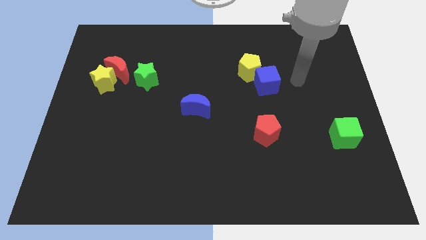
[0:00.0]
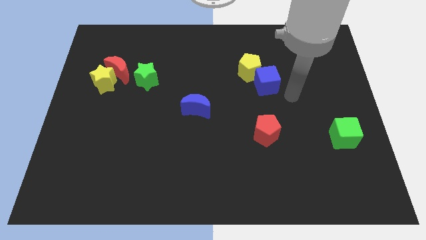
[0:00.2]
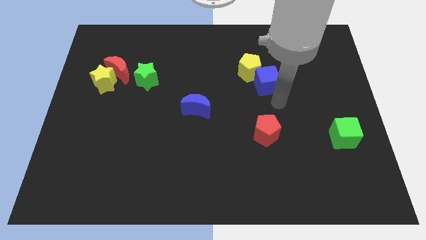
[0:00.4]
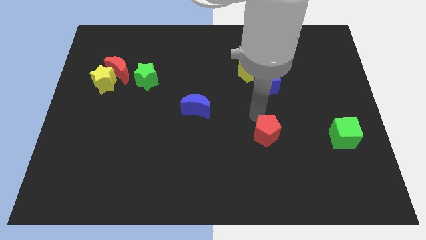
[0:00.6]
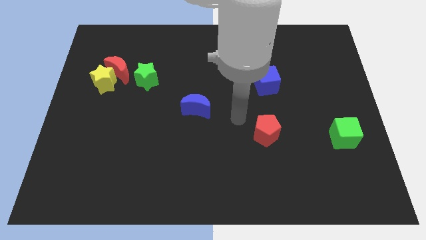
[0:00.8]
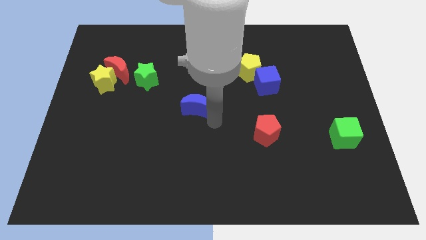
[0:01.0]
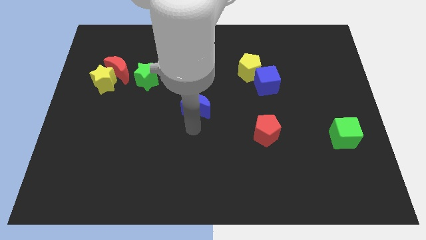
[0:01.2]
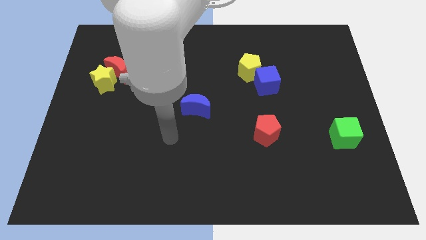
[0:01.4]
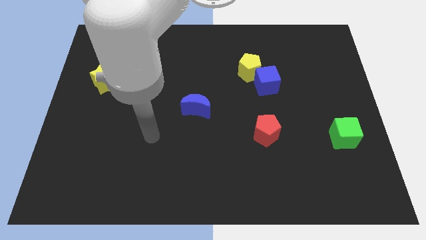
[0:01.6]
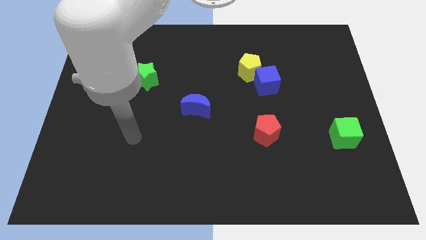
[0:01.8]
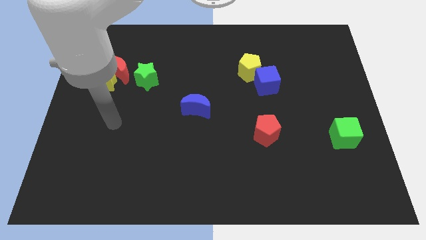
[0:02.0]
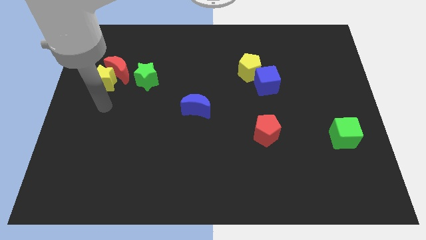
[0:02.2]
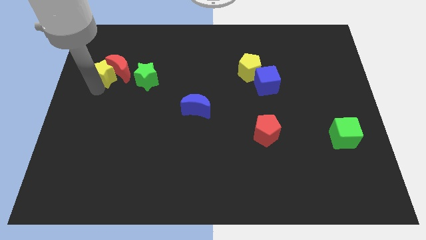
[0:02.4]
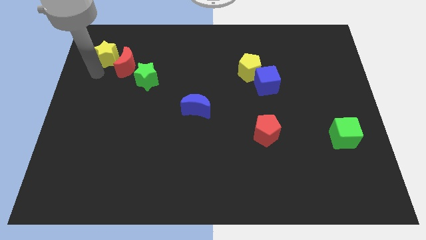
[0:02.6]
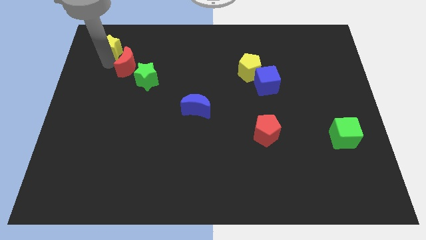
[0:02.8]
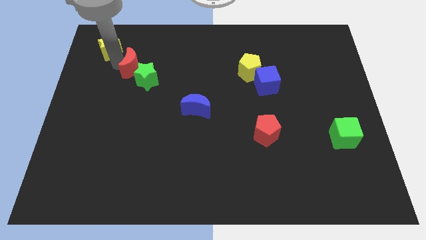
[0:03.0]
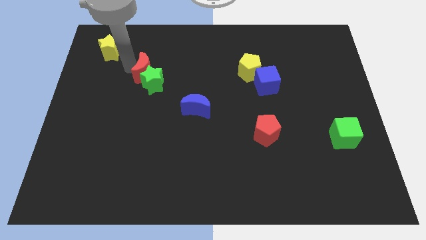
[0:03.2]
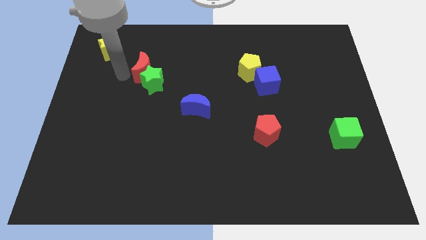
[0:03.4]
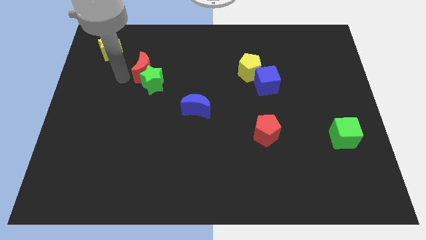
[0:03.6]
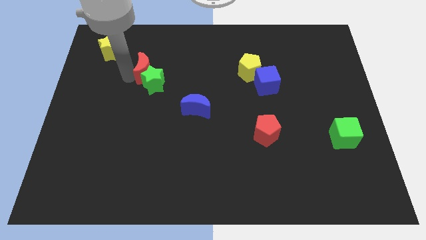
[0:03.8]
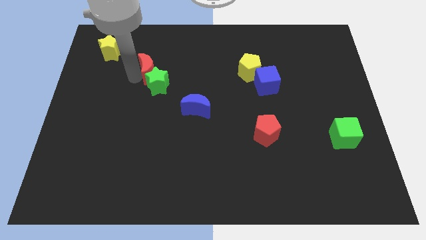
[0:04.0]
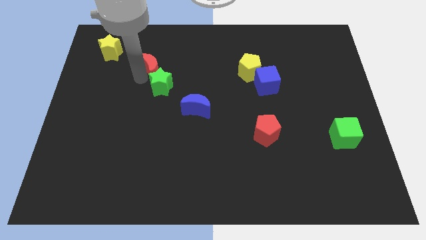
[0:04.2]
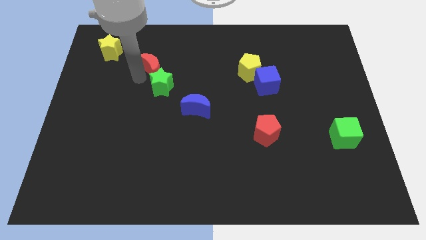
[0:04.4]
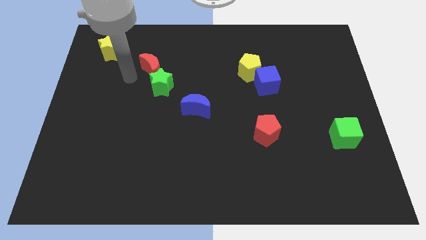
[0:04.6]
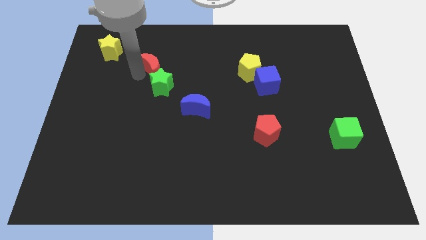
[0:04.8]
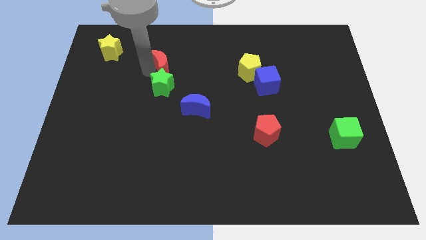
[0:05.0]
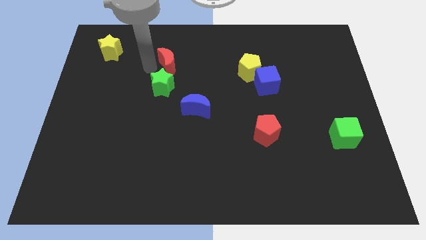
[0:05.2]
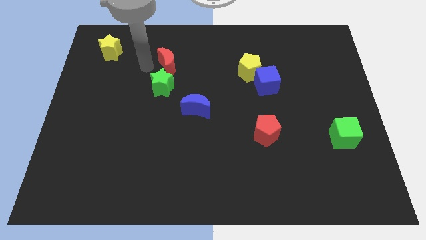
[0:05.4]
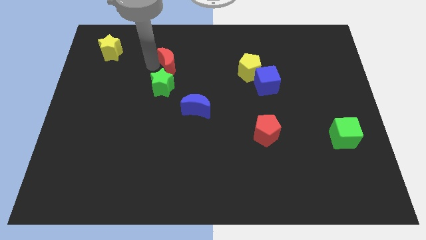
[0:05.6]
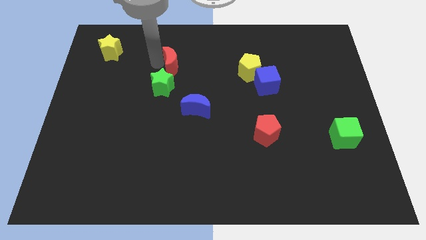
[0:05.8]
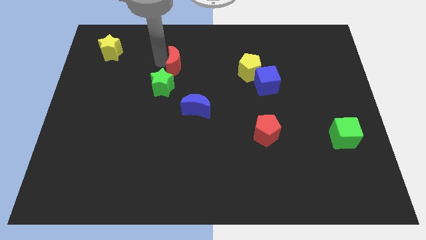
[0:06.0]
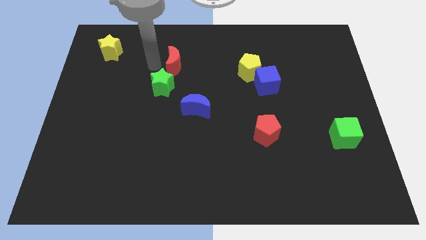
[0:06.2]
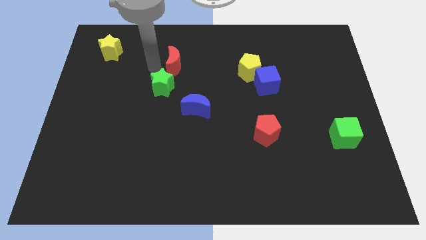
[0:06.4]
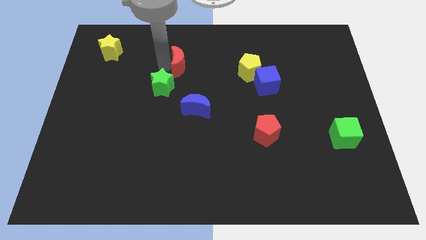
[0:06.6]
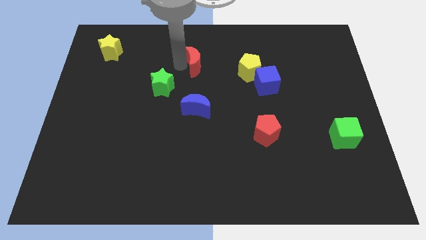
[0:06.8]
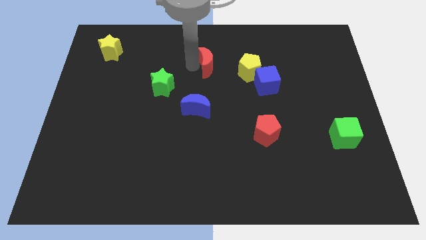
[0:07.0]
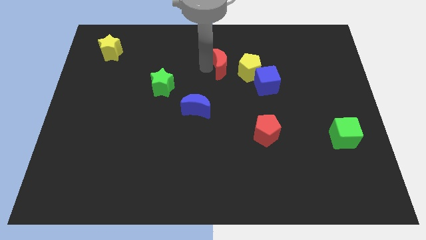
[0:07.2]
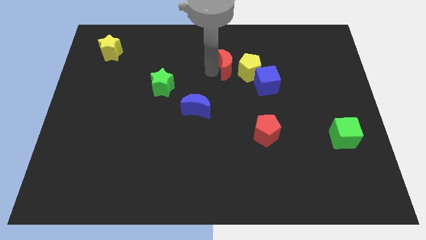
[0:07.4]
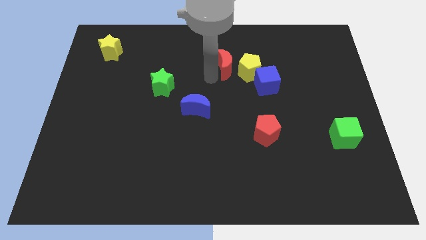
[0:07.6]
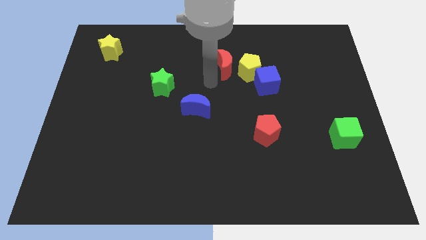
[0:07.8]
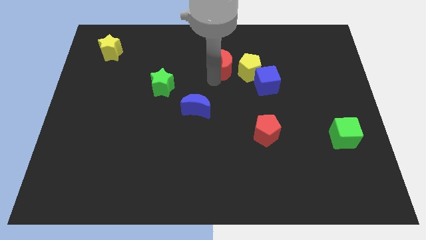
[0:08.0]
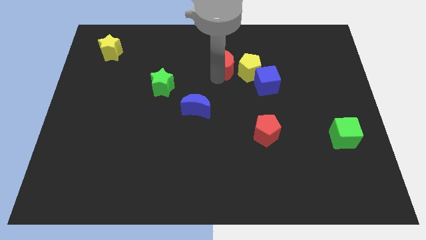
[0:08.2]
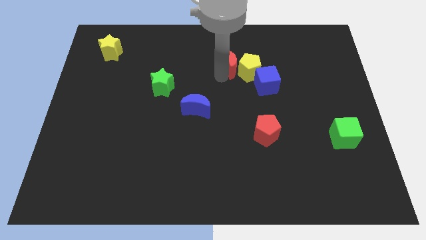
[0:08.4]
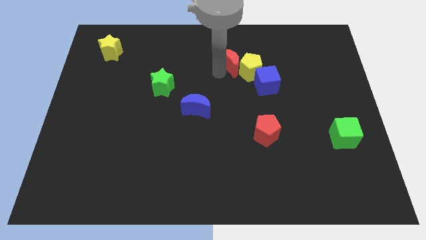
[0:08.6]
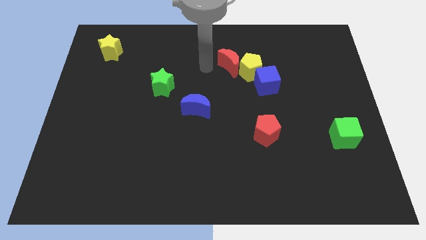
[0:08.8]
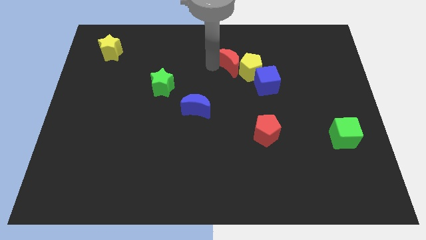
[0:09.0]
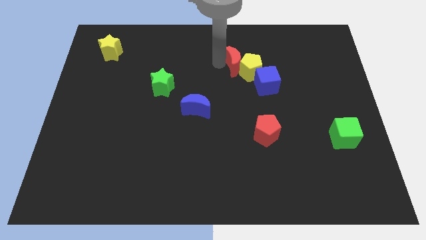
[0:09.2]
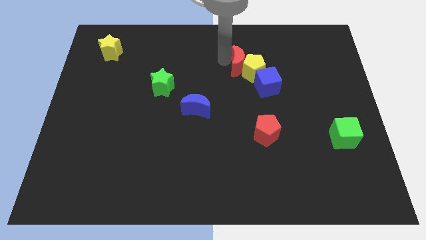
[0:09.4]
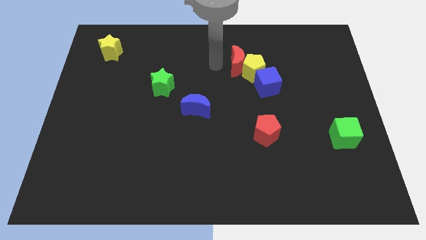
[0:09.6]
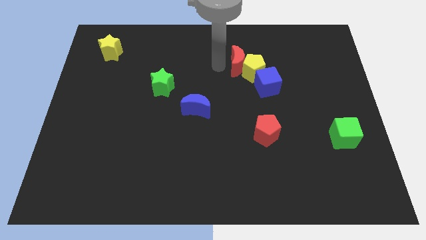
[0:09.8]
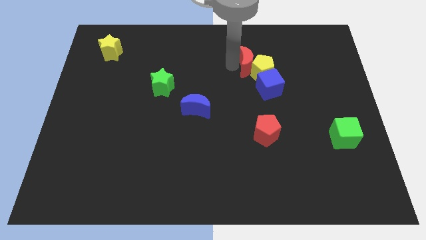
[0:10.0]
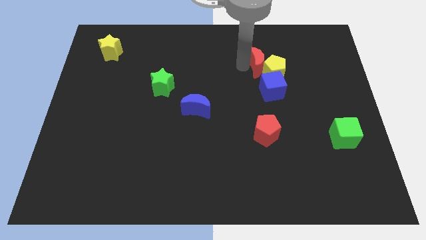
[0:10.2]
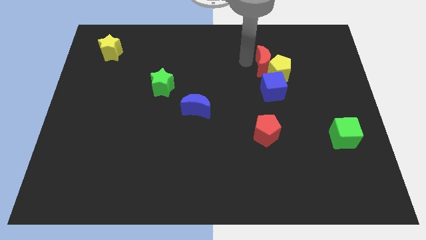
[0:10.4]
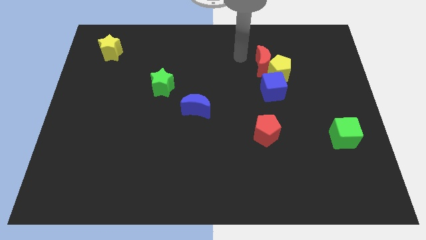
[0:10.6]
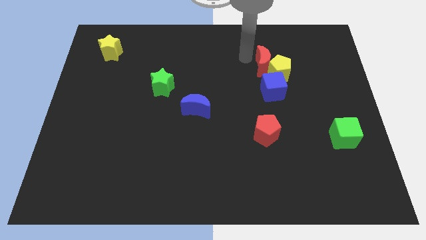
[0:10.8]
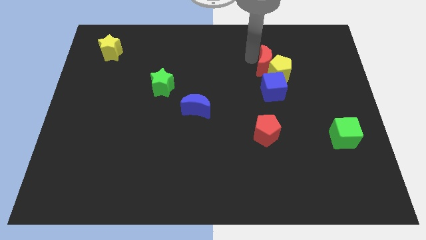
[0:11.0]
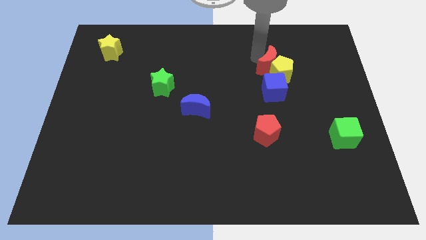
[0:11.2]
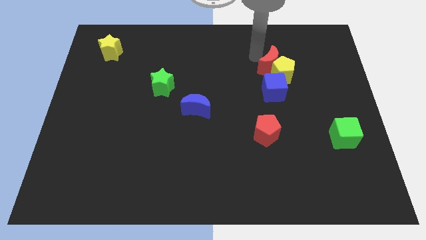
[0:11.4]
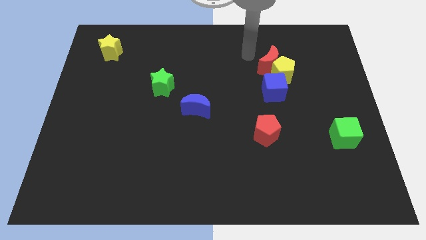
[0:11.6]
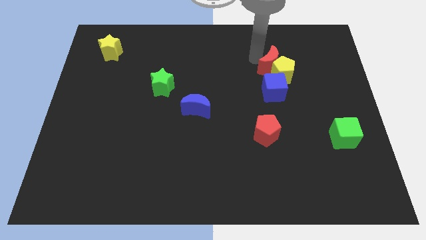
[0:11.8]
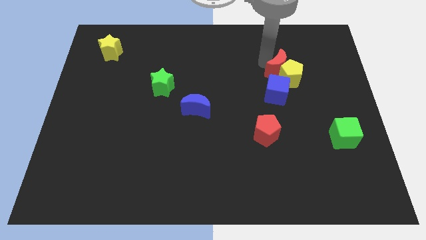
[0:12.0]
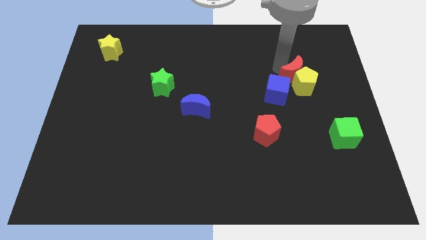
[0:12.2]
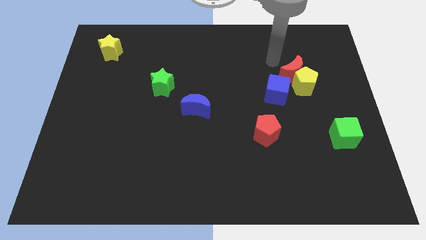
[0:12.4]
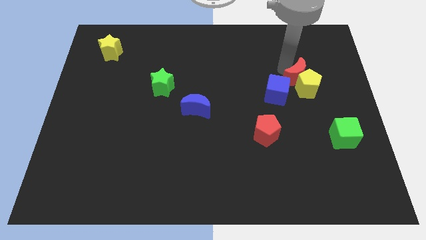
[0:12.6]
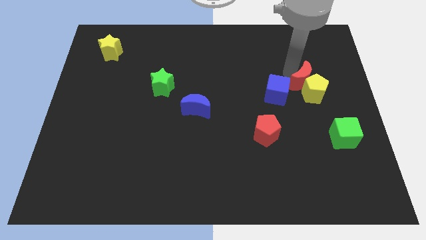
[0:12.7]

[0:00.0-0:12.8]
slide the red moon right of the blue cube

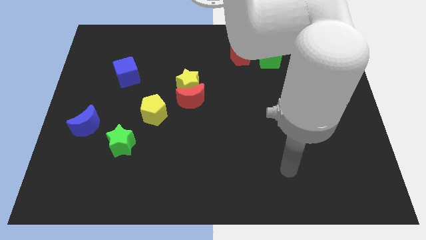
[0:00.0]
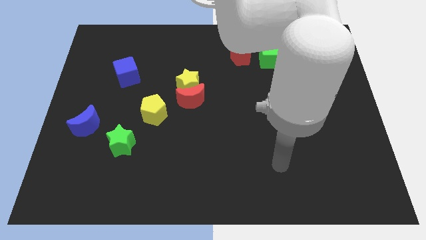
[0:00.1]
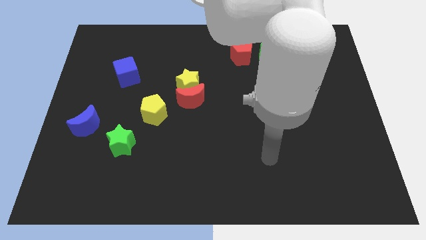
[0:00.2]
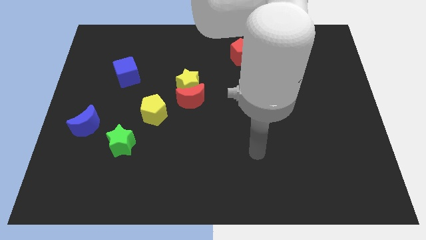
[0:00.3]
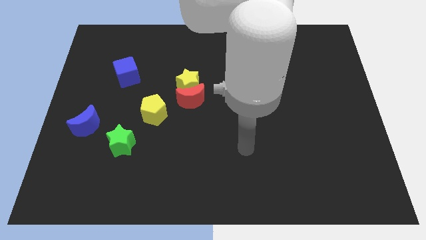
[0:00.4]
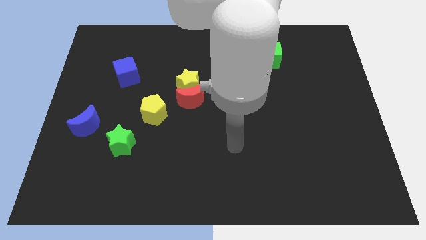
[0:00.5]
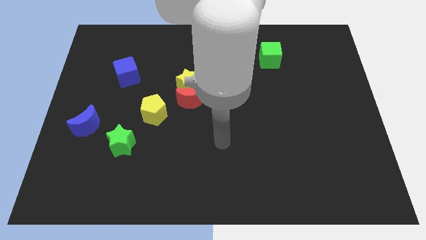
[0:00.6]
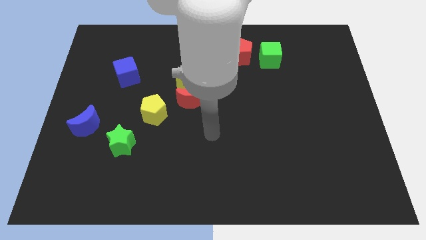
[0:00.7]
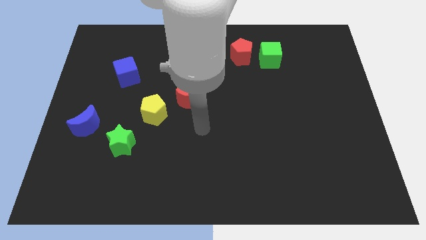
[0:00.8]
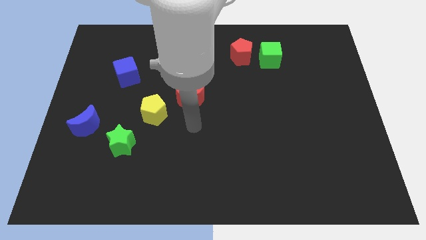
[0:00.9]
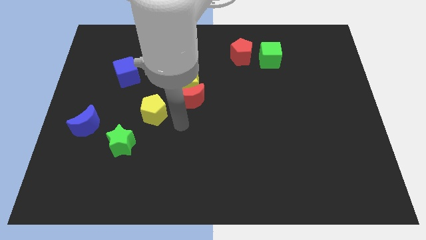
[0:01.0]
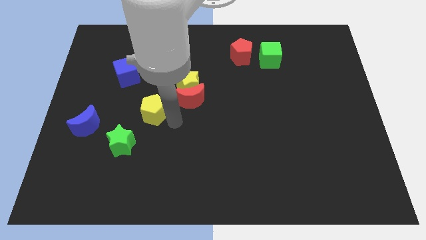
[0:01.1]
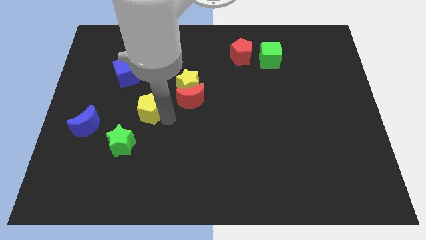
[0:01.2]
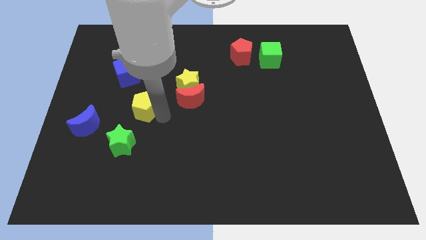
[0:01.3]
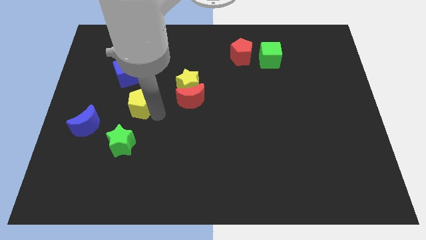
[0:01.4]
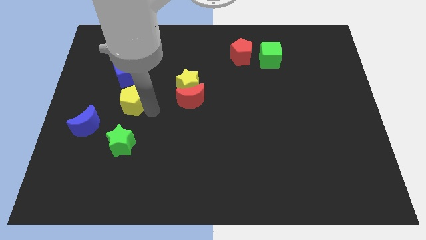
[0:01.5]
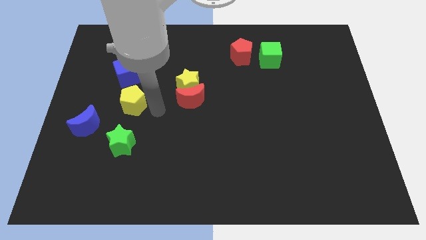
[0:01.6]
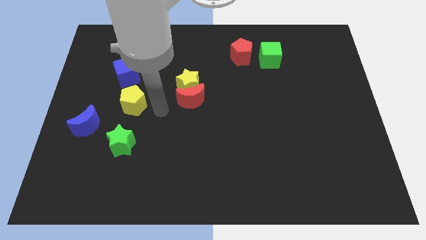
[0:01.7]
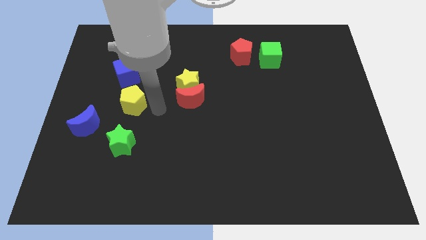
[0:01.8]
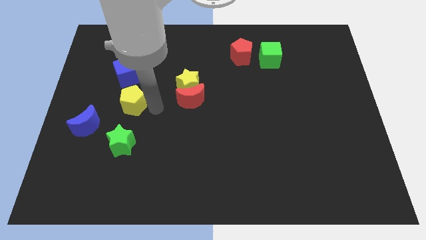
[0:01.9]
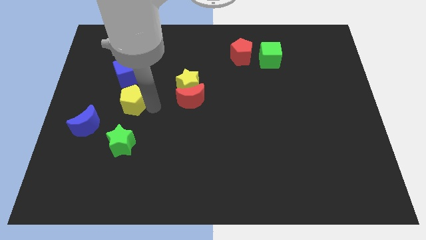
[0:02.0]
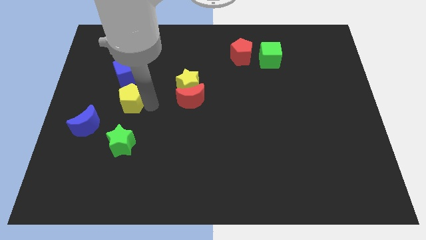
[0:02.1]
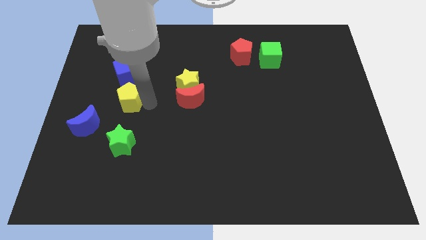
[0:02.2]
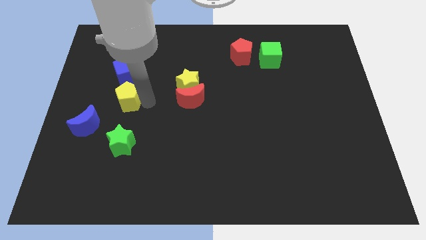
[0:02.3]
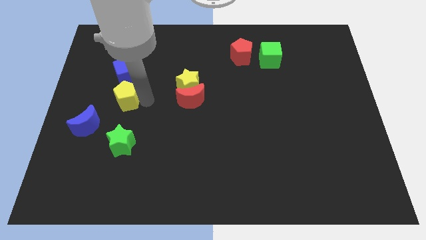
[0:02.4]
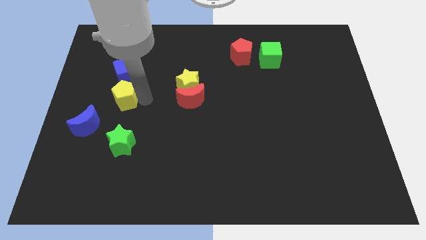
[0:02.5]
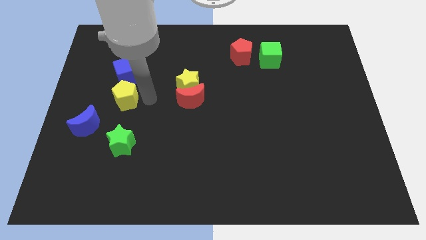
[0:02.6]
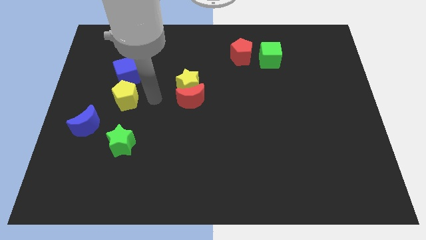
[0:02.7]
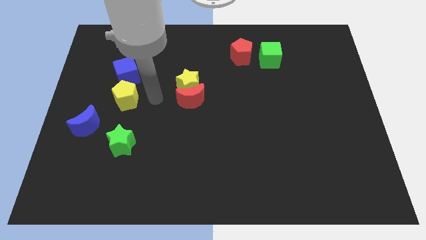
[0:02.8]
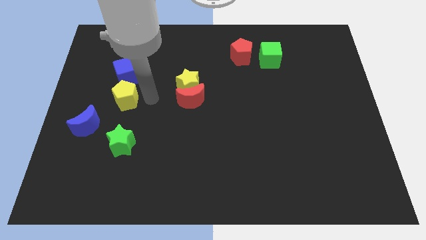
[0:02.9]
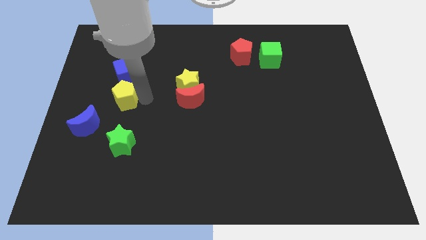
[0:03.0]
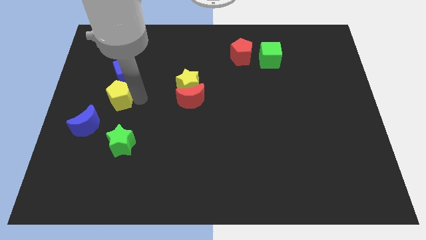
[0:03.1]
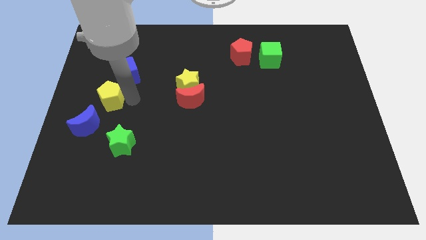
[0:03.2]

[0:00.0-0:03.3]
push the yellow pentagon above the blue moon
